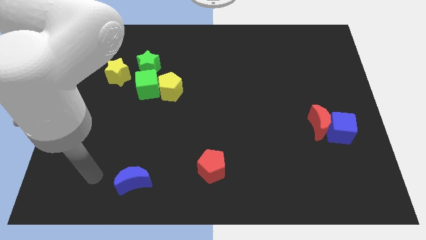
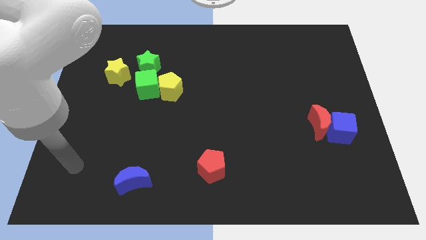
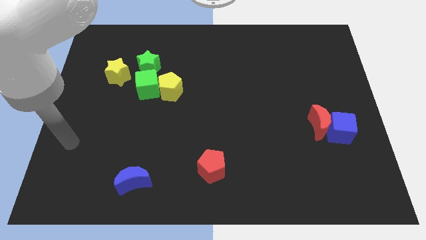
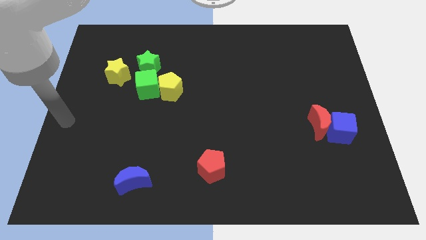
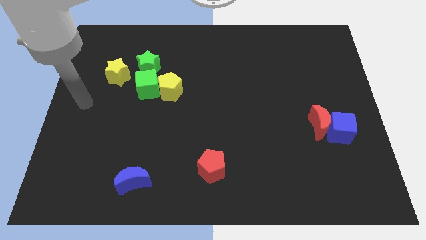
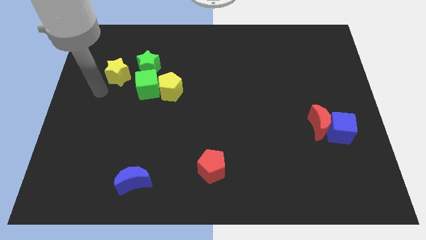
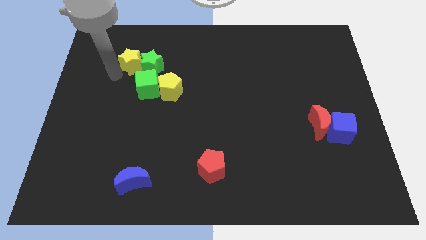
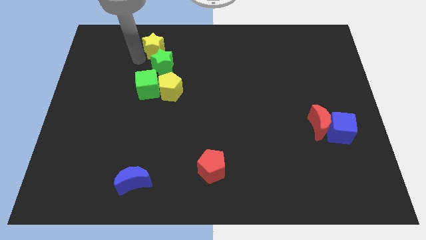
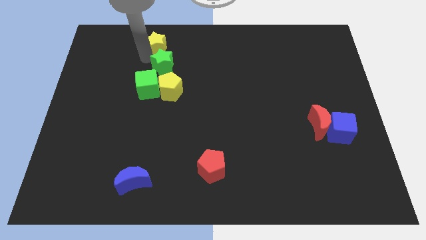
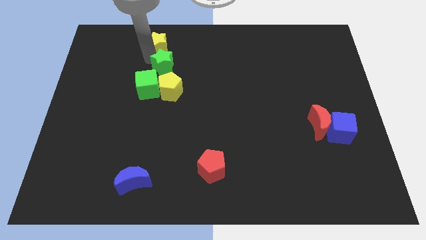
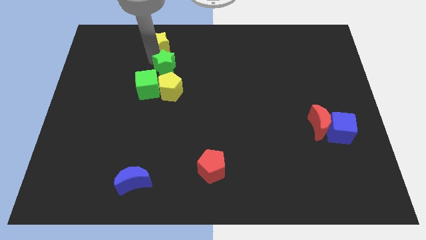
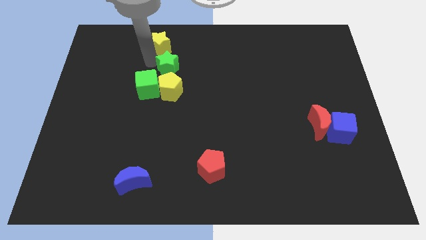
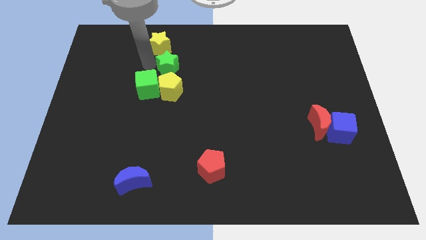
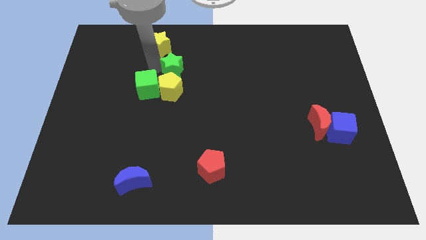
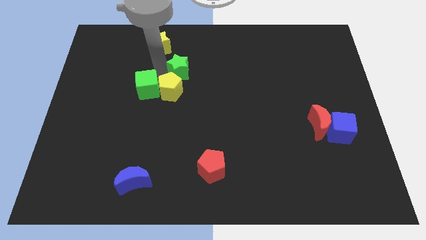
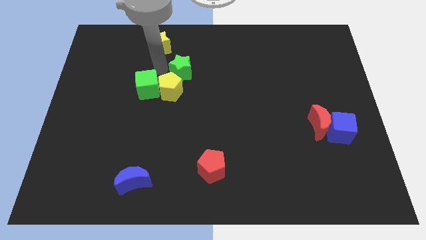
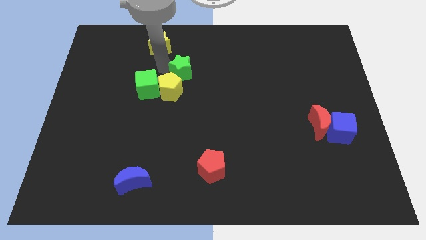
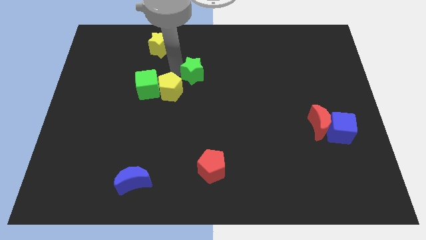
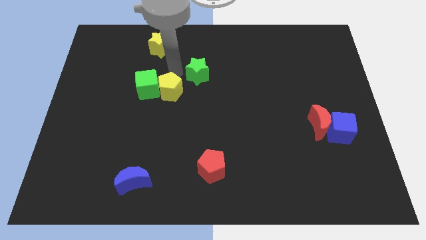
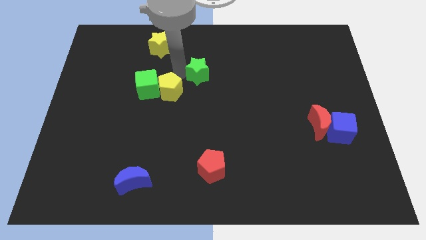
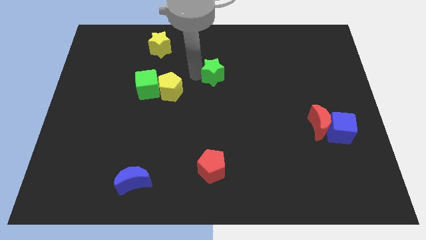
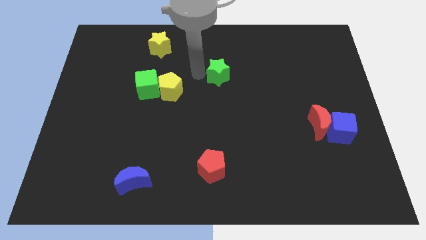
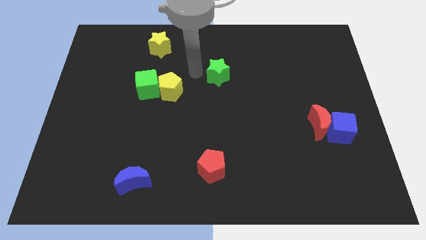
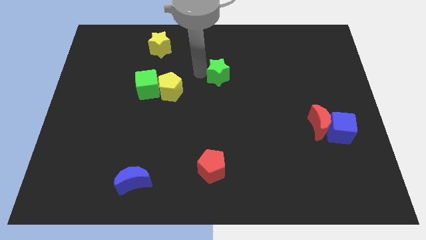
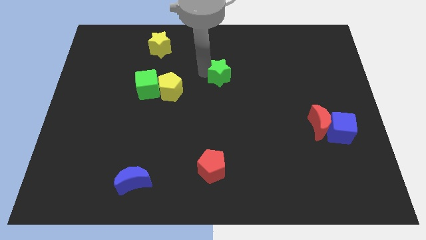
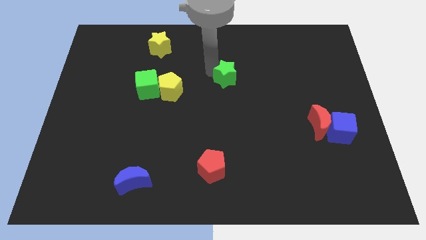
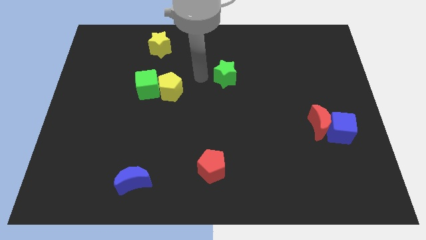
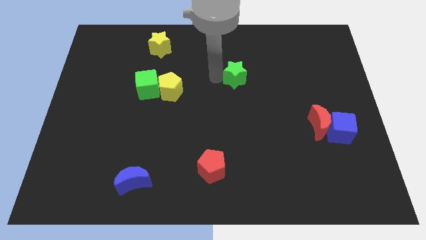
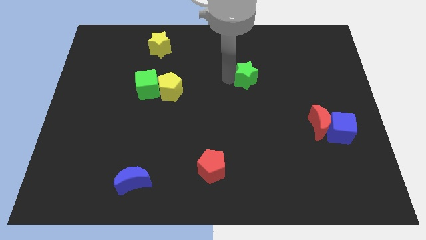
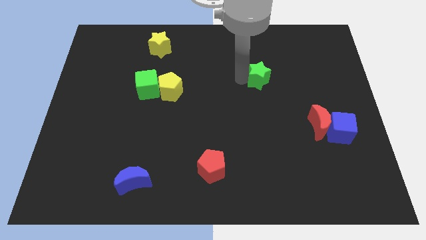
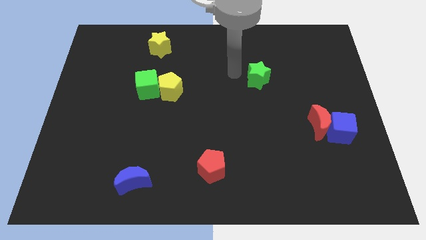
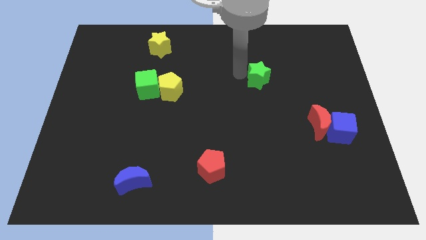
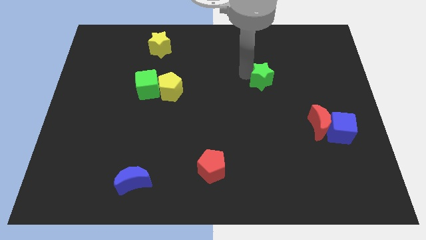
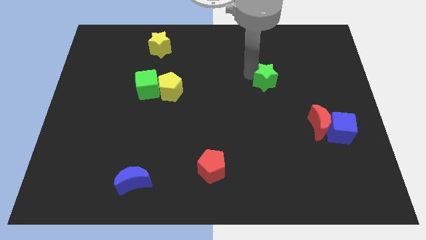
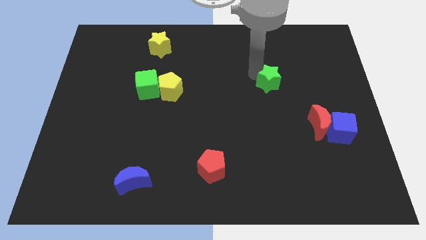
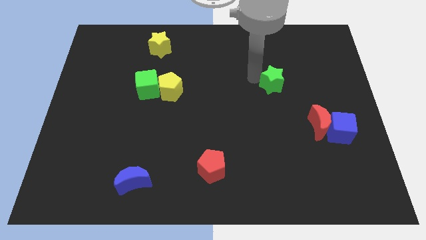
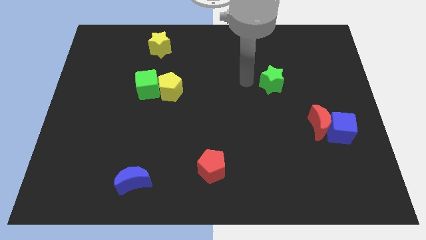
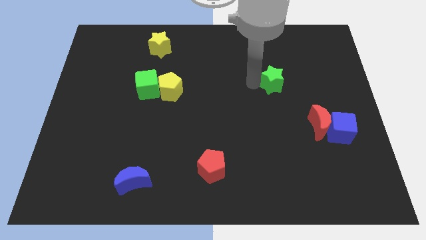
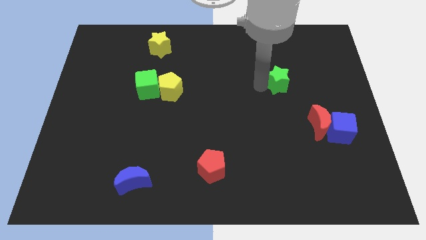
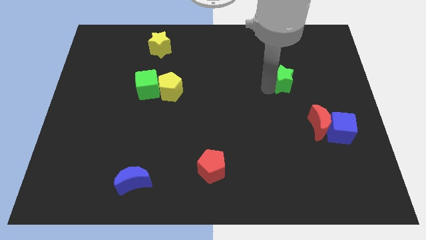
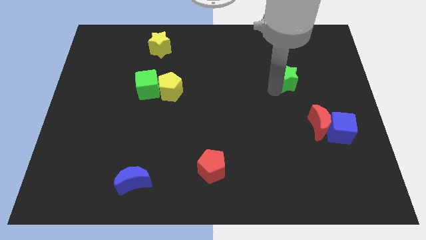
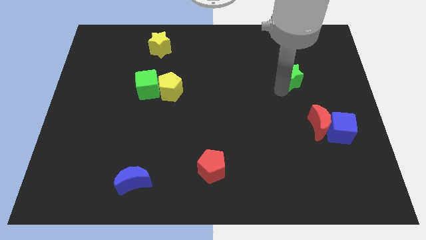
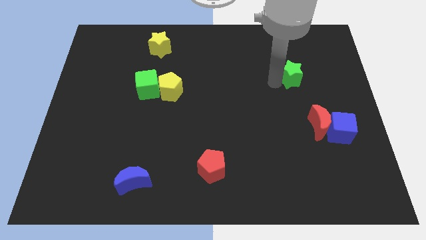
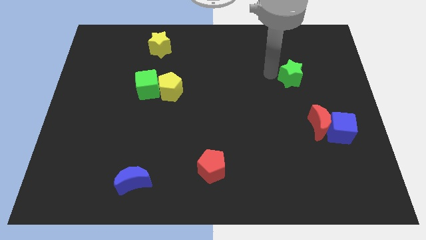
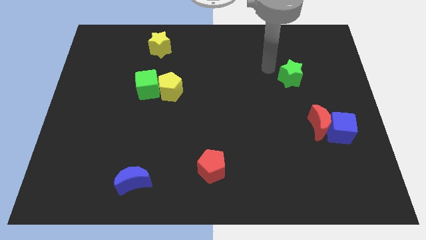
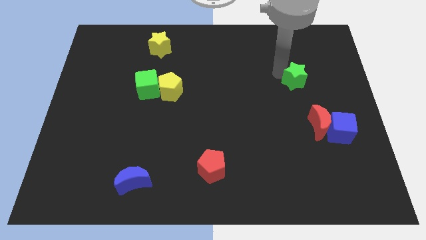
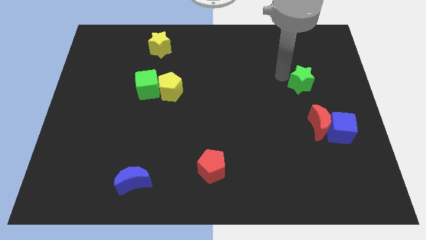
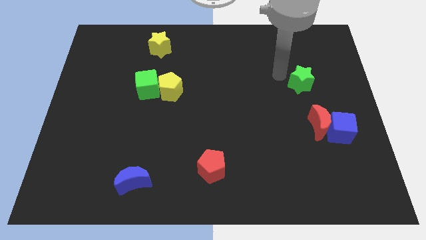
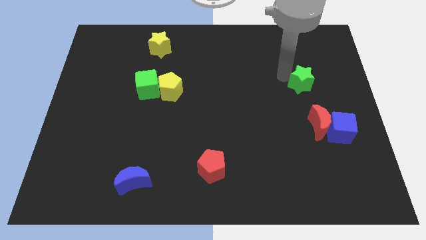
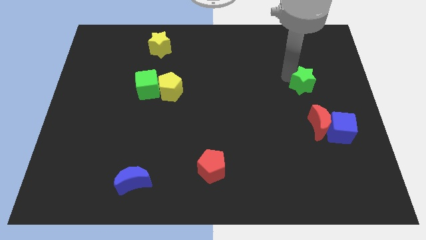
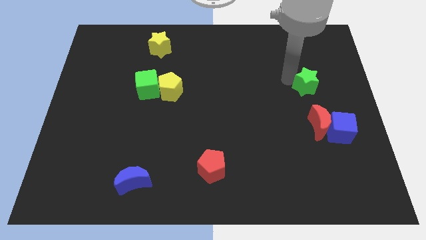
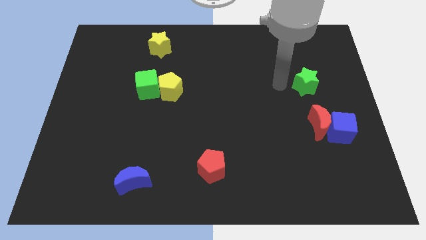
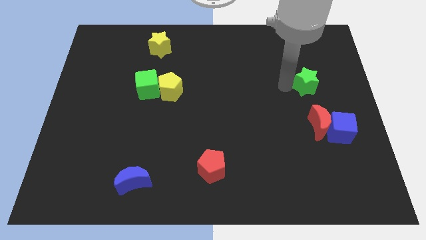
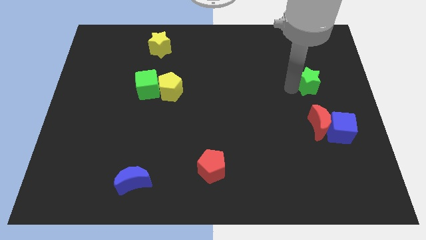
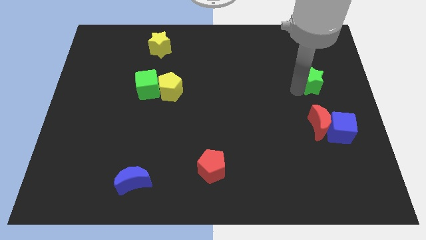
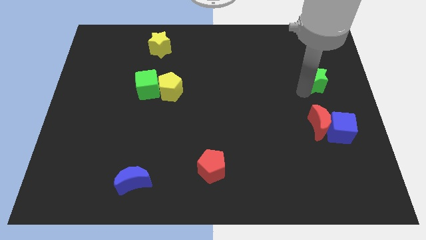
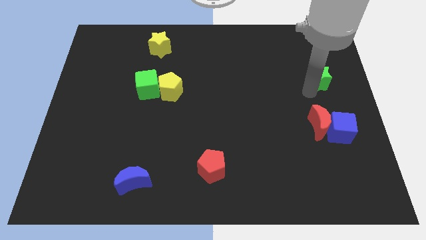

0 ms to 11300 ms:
push the green star to the right side of the board
